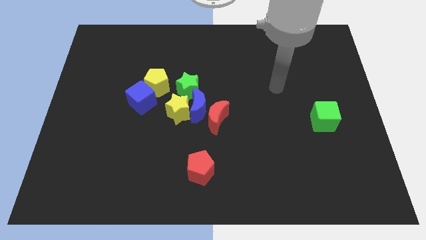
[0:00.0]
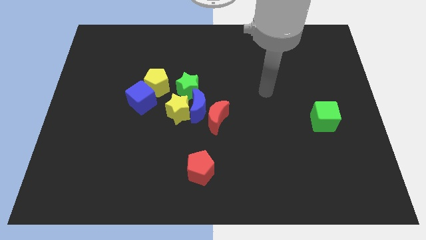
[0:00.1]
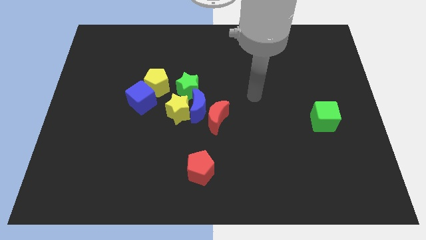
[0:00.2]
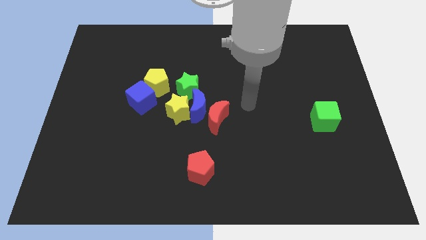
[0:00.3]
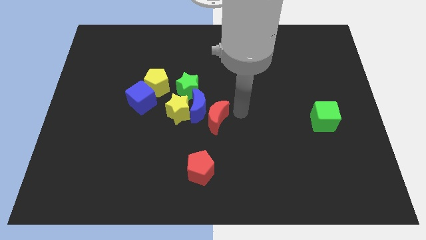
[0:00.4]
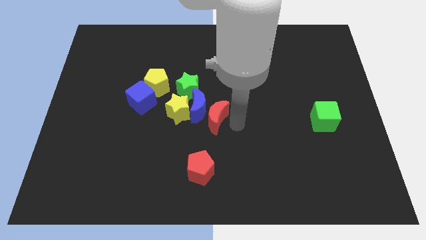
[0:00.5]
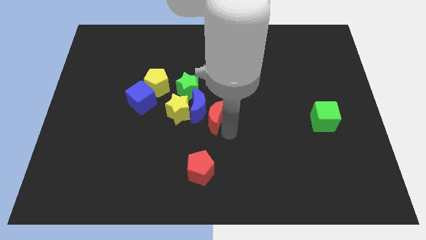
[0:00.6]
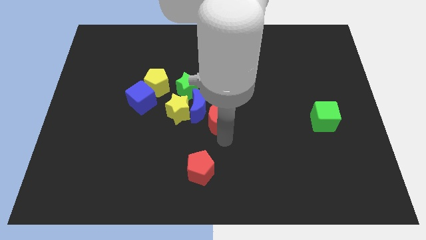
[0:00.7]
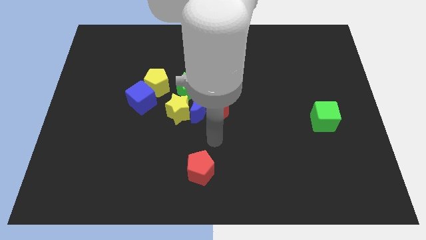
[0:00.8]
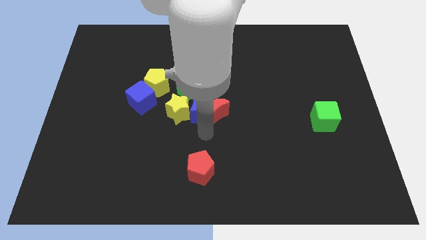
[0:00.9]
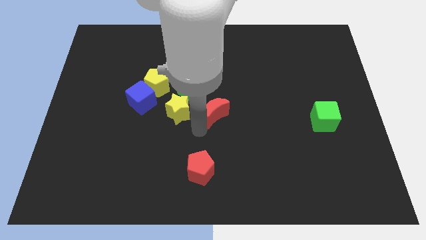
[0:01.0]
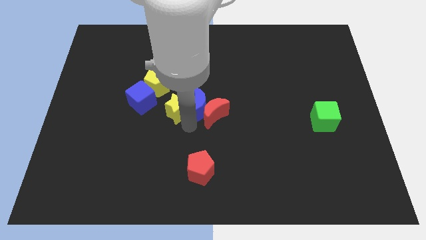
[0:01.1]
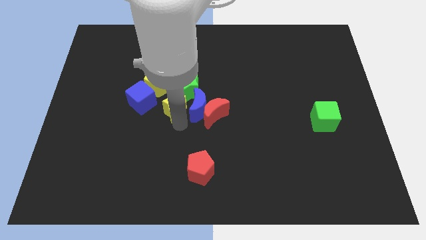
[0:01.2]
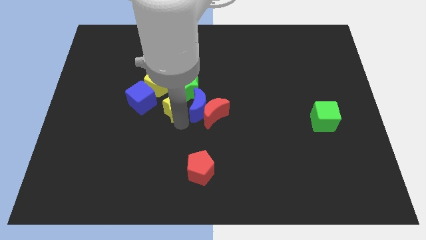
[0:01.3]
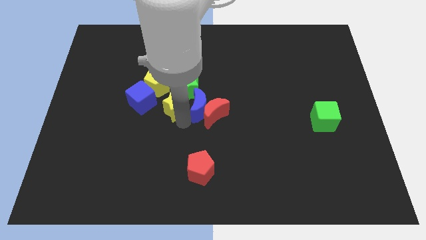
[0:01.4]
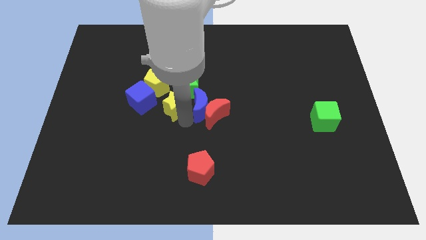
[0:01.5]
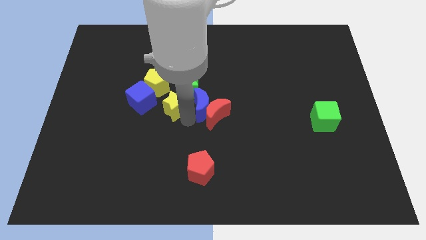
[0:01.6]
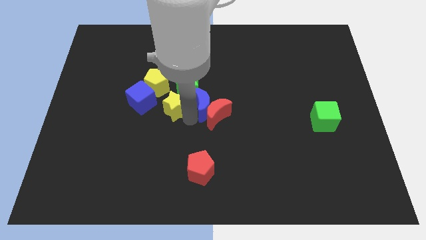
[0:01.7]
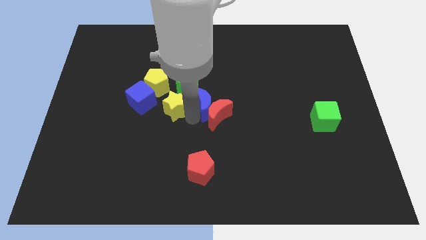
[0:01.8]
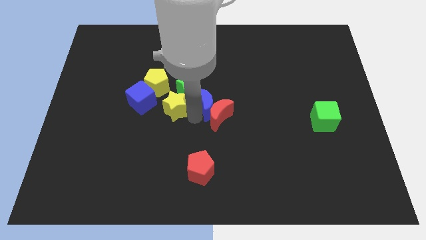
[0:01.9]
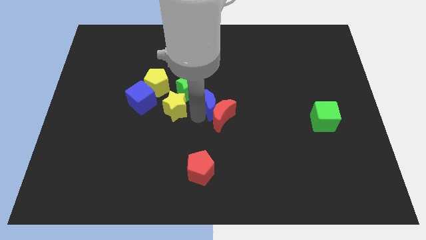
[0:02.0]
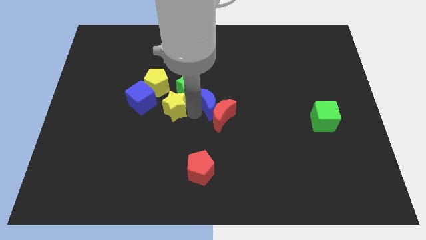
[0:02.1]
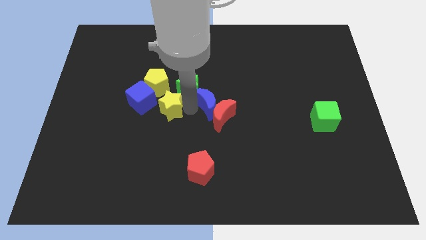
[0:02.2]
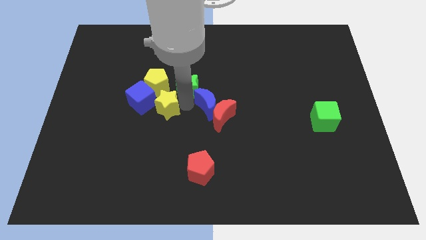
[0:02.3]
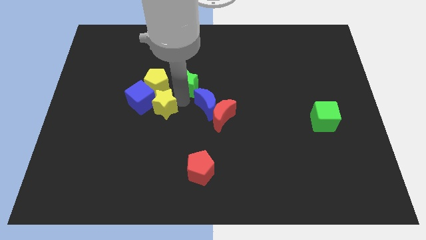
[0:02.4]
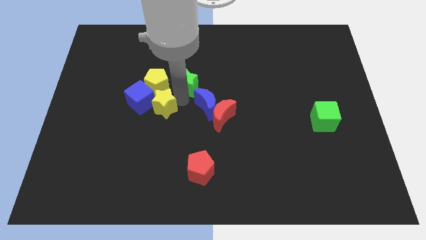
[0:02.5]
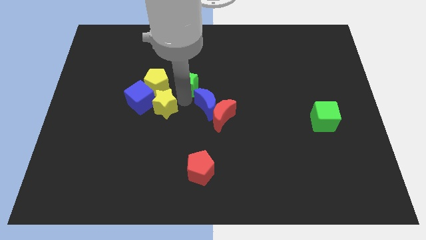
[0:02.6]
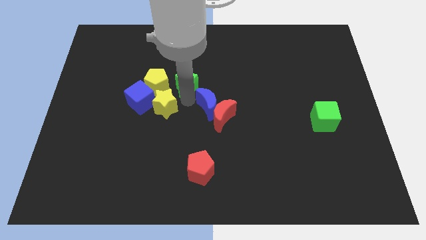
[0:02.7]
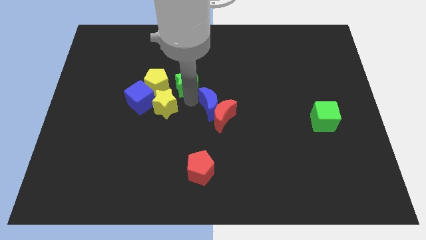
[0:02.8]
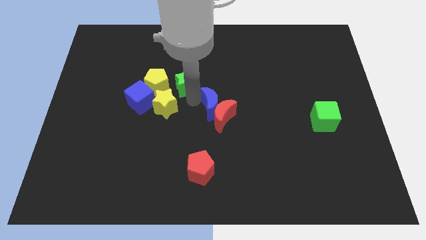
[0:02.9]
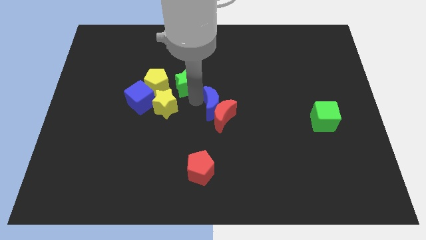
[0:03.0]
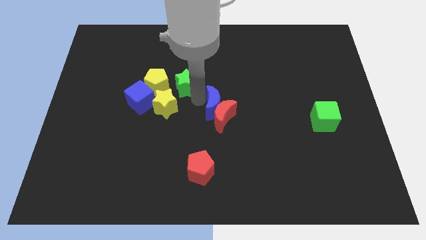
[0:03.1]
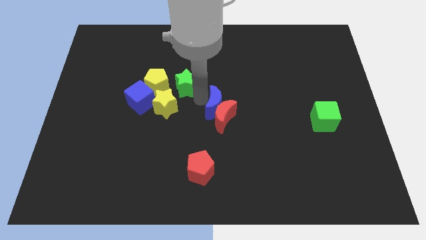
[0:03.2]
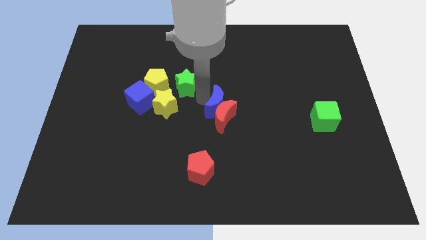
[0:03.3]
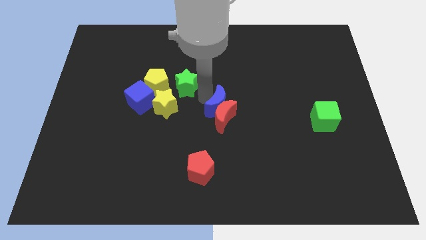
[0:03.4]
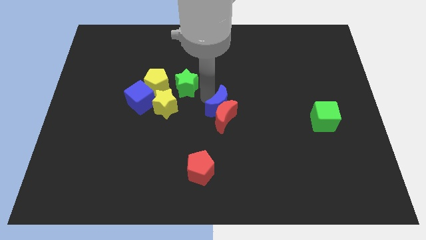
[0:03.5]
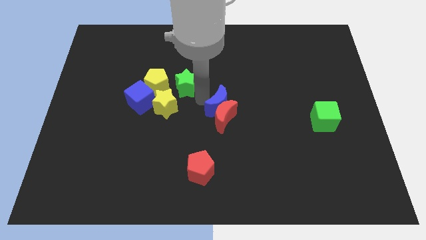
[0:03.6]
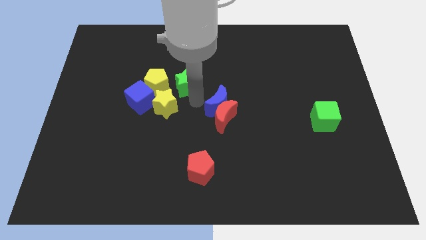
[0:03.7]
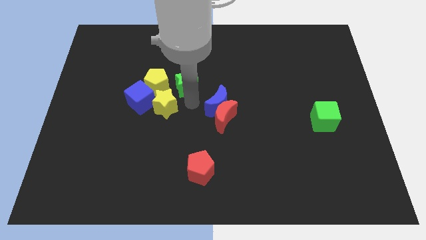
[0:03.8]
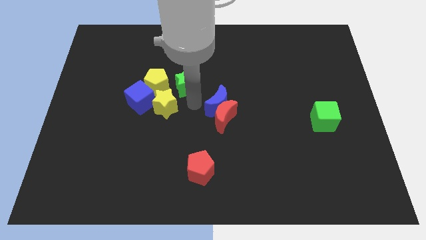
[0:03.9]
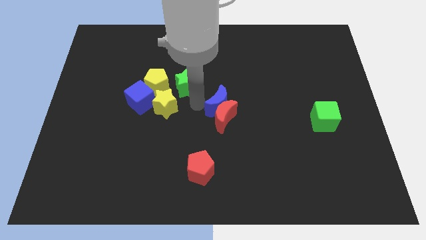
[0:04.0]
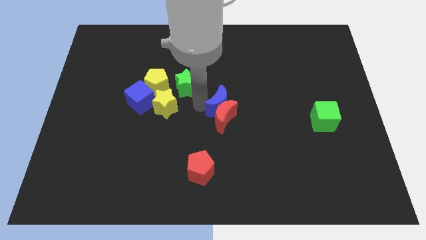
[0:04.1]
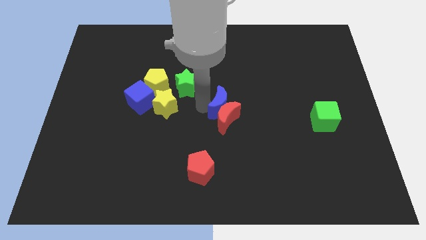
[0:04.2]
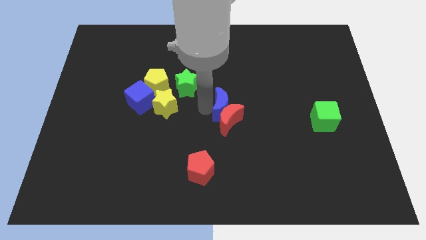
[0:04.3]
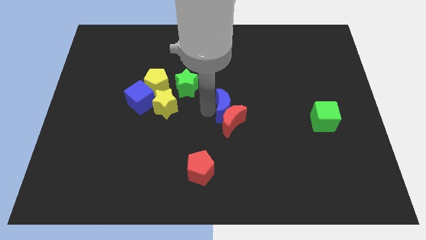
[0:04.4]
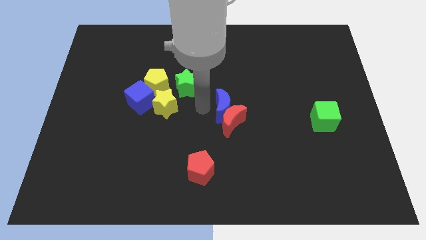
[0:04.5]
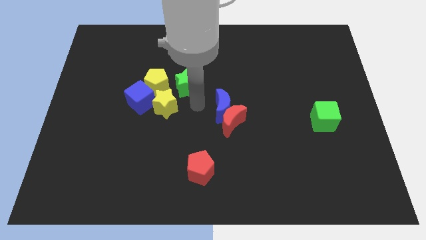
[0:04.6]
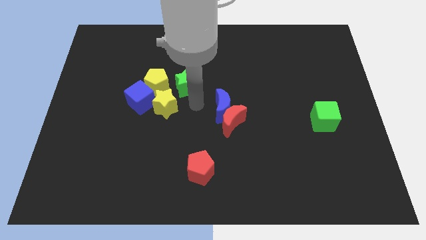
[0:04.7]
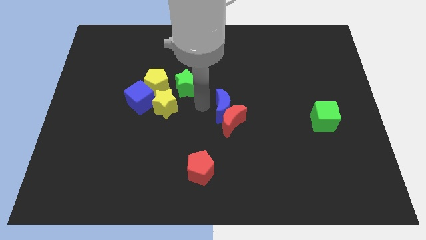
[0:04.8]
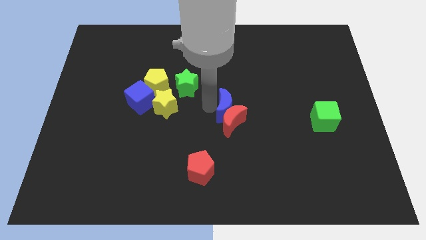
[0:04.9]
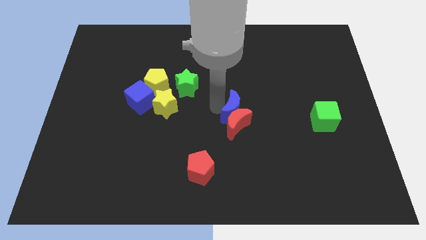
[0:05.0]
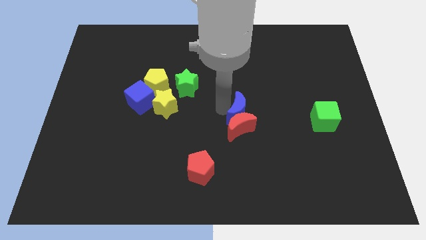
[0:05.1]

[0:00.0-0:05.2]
separate the blue moon from the group of blocks

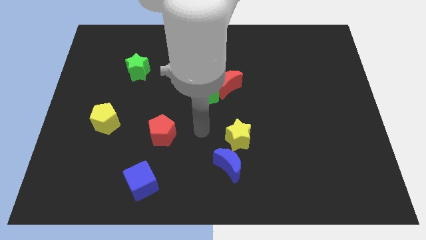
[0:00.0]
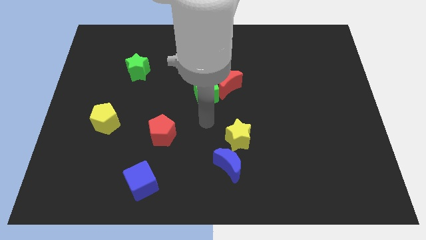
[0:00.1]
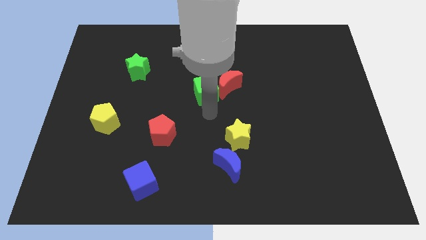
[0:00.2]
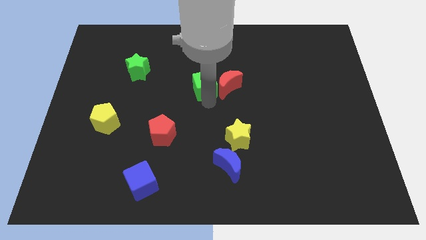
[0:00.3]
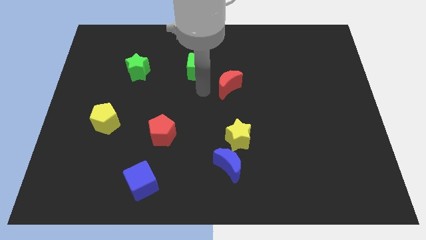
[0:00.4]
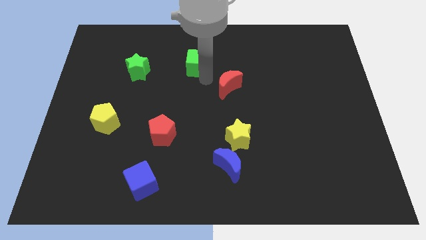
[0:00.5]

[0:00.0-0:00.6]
separate the red moon from the green cube

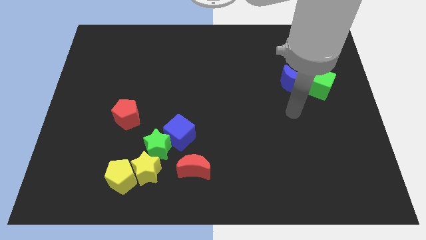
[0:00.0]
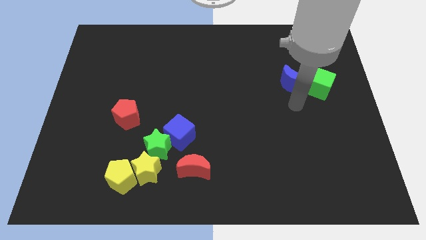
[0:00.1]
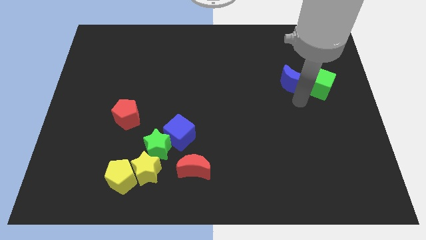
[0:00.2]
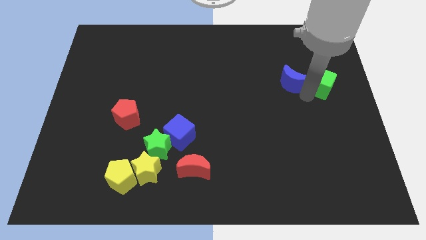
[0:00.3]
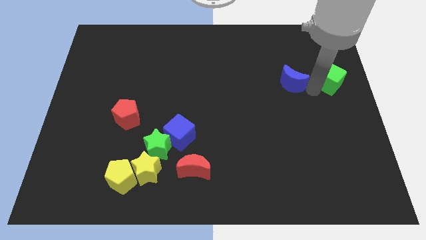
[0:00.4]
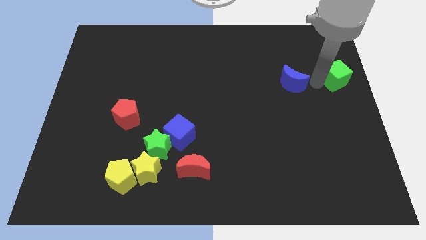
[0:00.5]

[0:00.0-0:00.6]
pull the blue moon apart from the green cube

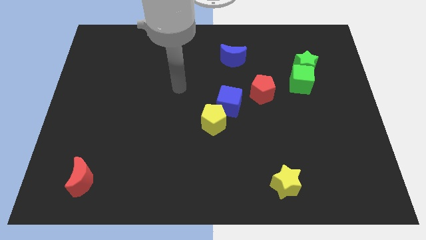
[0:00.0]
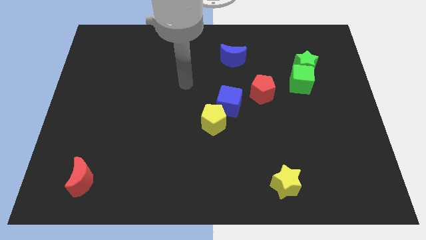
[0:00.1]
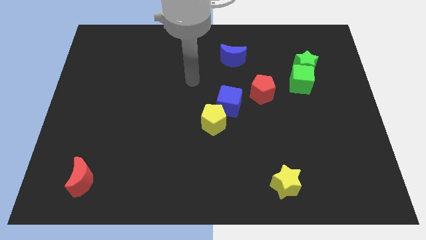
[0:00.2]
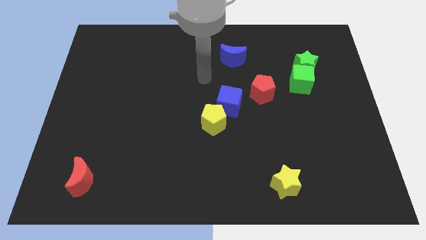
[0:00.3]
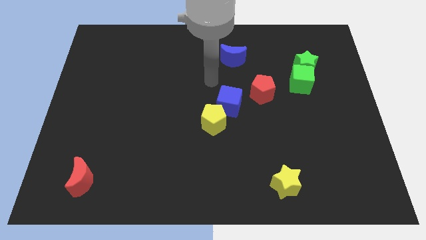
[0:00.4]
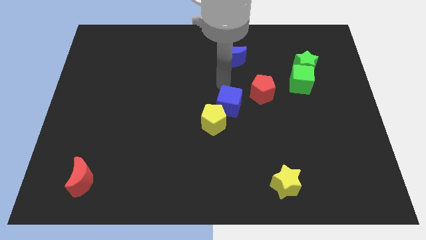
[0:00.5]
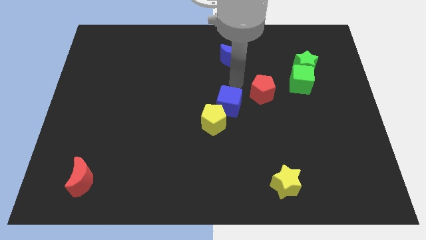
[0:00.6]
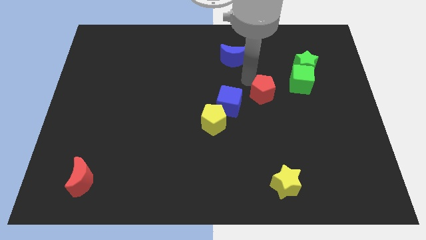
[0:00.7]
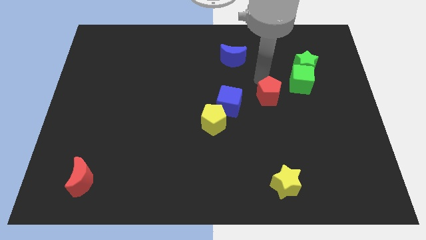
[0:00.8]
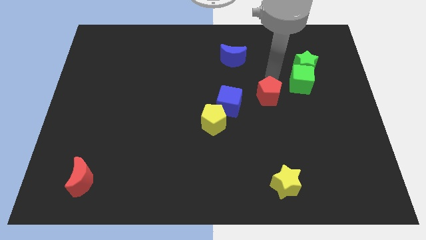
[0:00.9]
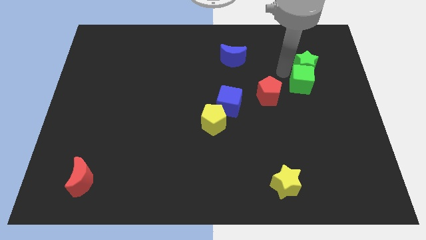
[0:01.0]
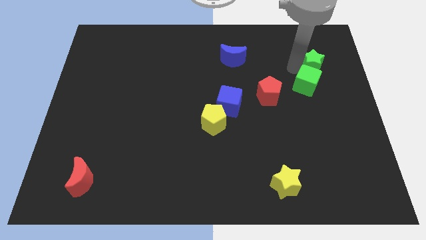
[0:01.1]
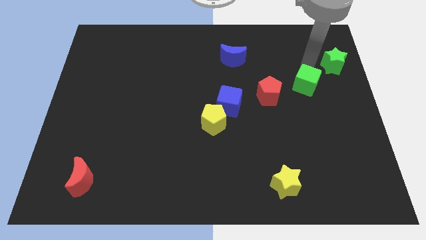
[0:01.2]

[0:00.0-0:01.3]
move the green cube away from the green star

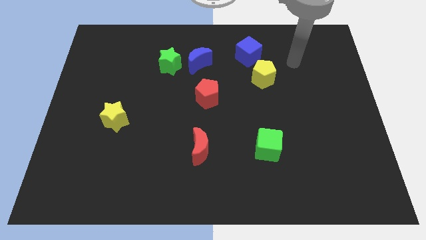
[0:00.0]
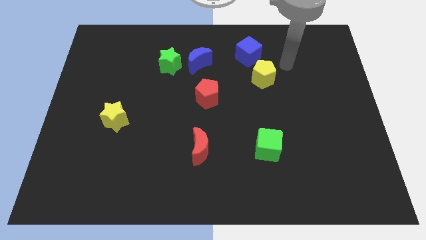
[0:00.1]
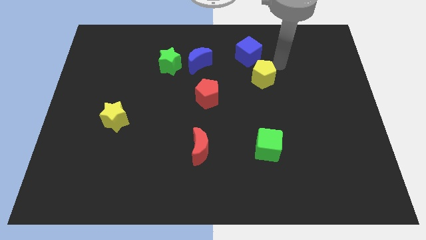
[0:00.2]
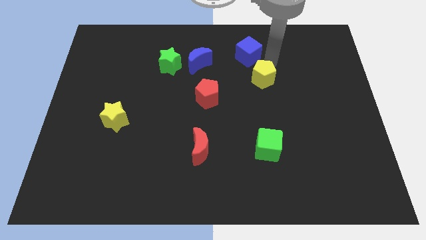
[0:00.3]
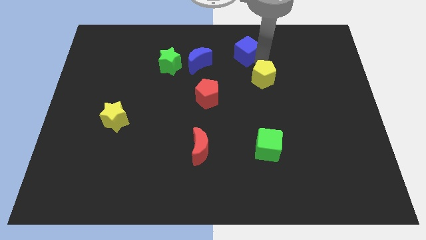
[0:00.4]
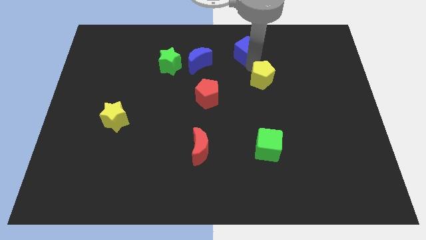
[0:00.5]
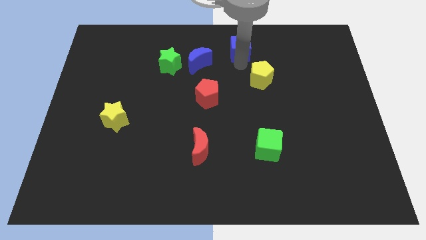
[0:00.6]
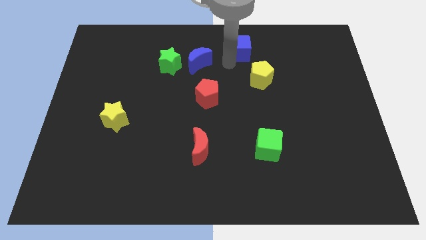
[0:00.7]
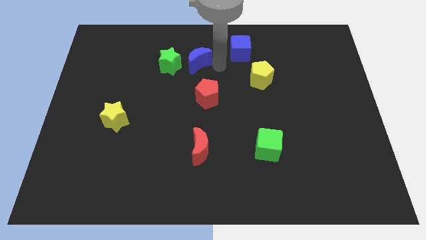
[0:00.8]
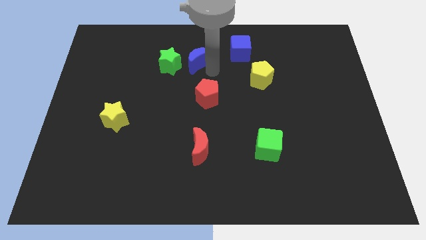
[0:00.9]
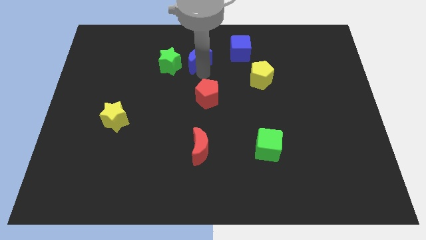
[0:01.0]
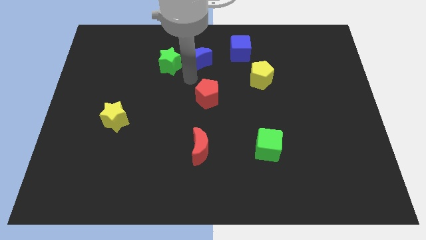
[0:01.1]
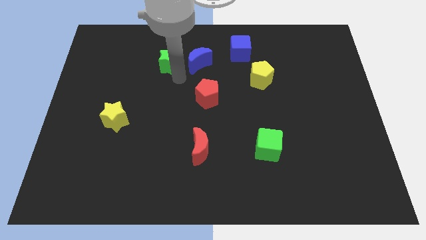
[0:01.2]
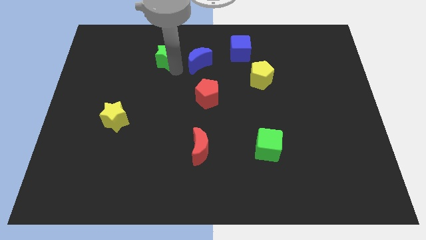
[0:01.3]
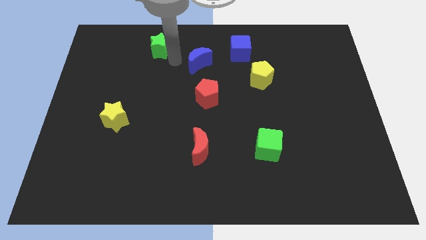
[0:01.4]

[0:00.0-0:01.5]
separate the blue moon from the green star

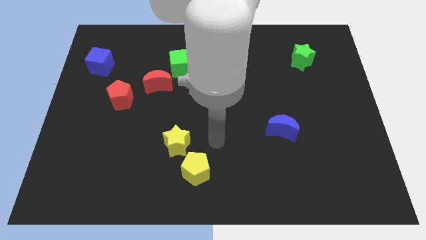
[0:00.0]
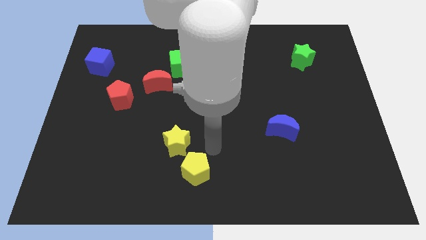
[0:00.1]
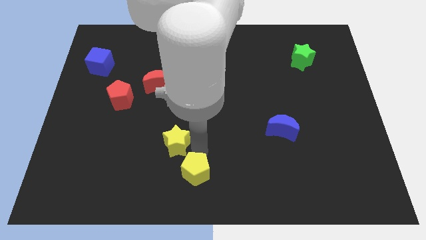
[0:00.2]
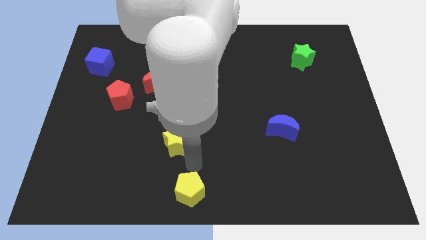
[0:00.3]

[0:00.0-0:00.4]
separate the yellow star from the yellow pentagon
